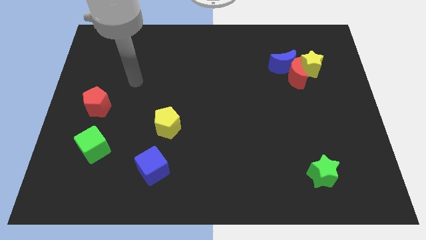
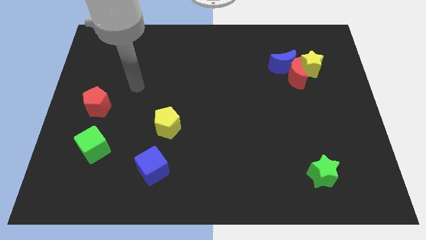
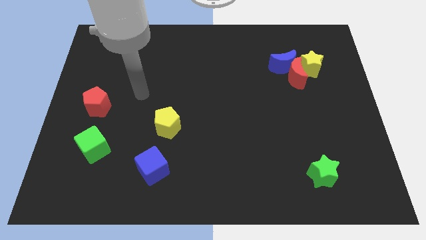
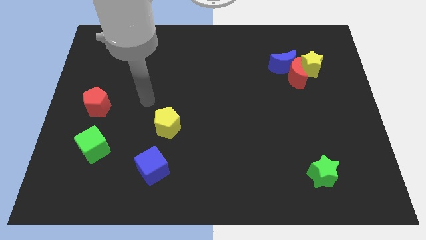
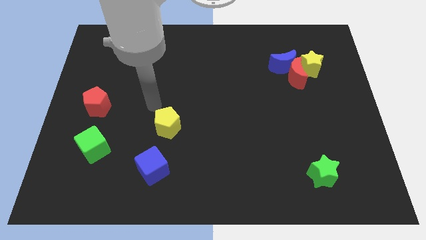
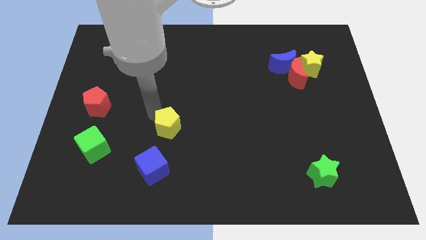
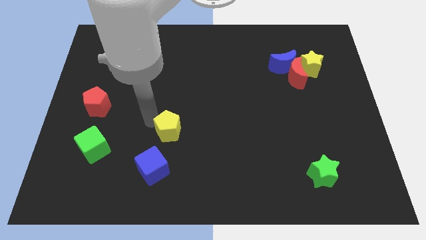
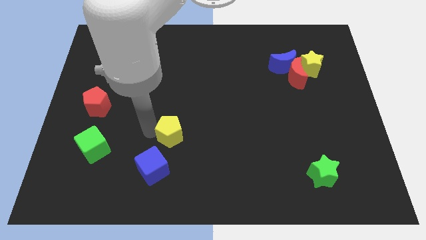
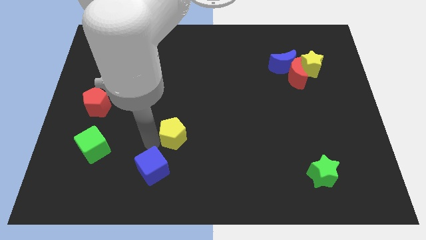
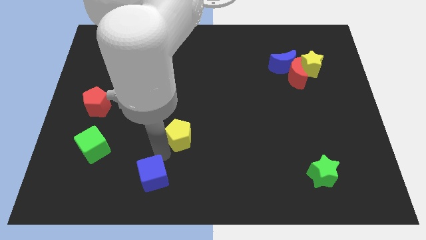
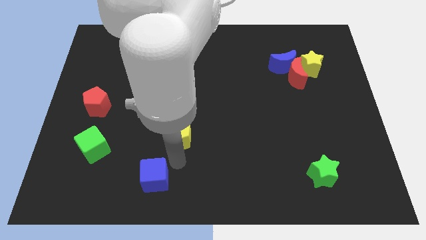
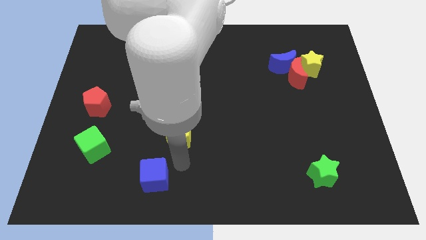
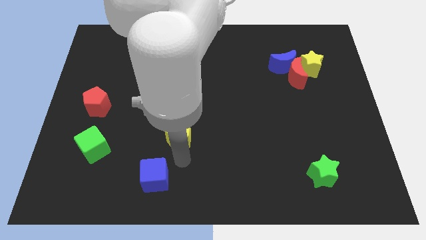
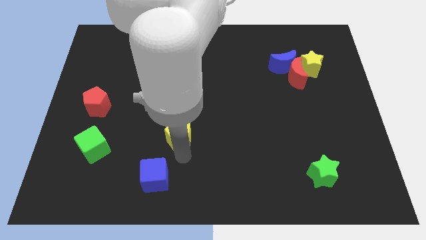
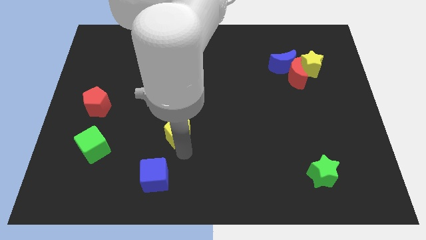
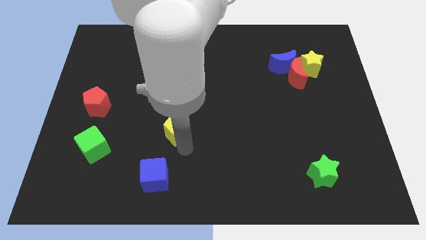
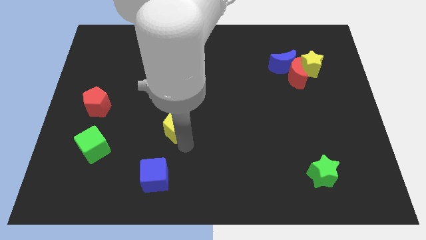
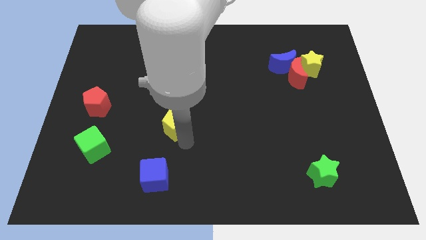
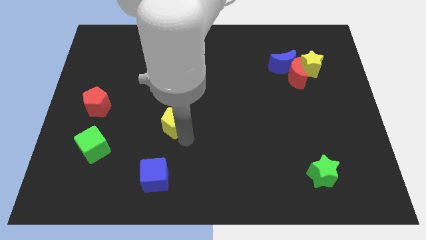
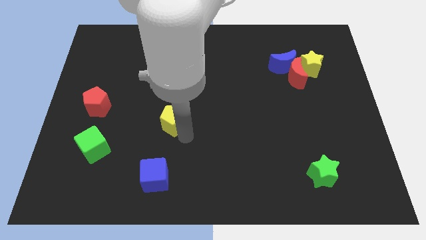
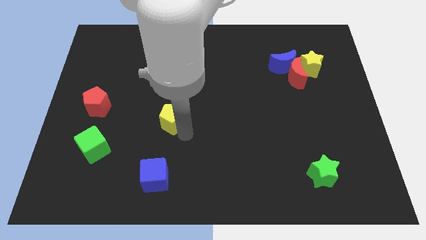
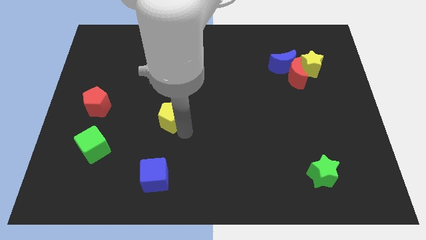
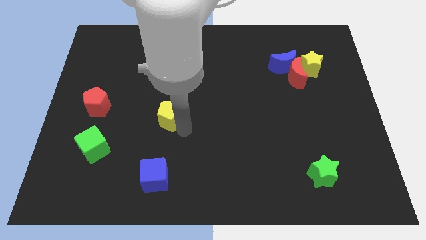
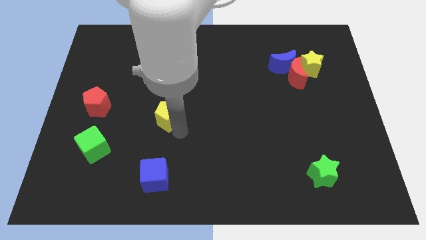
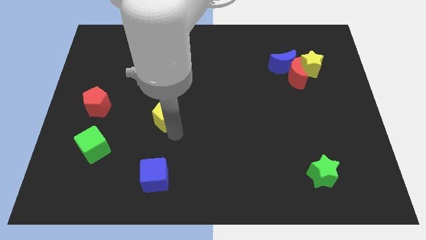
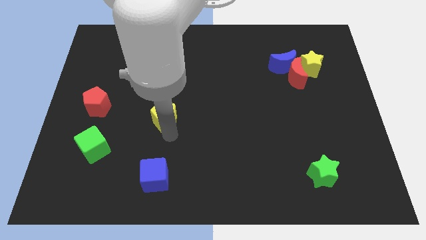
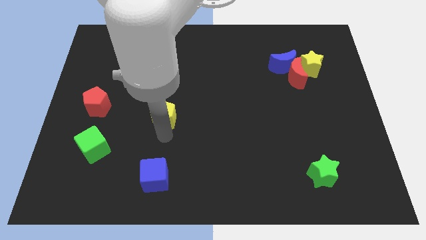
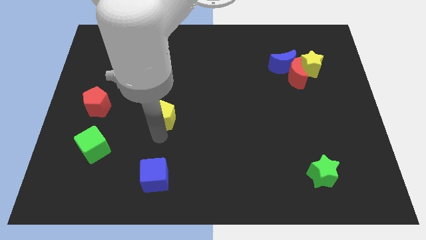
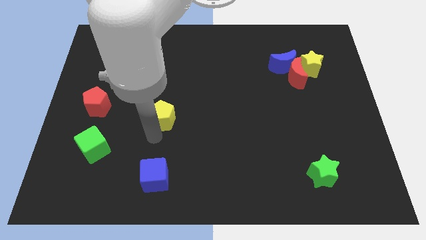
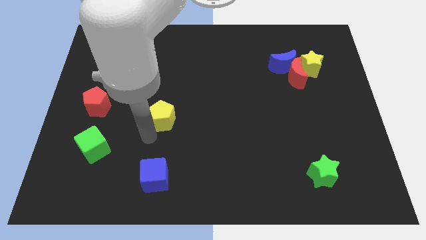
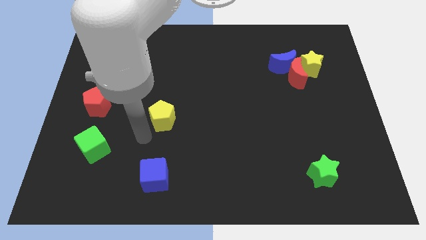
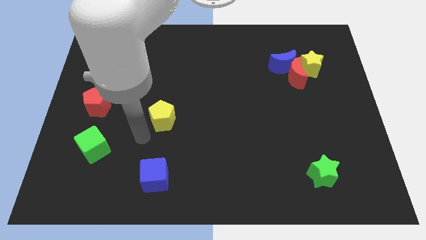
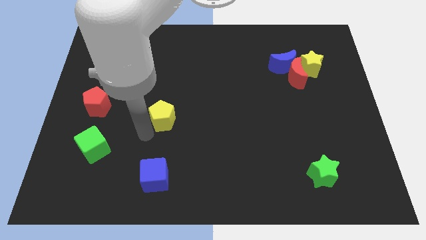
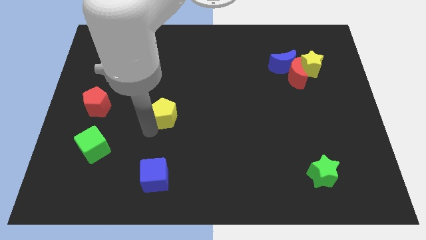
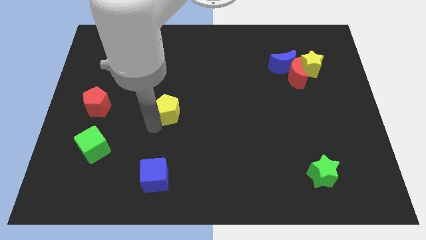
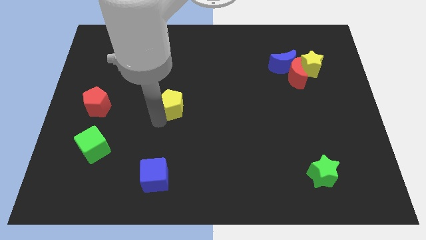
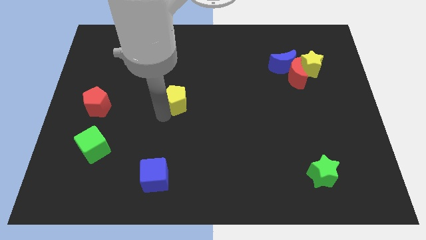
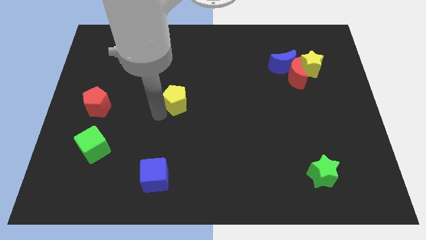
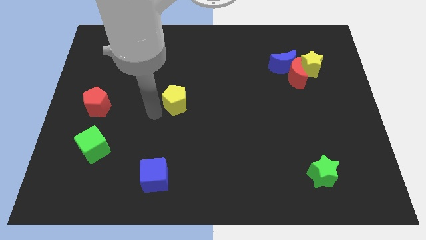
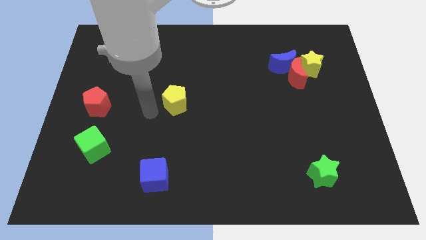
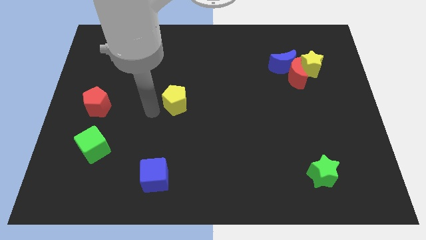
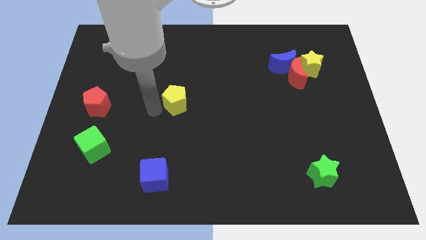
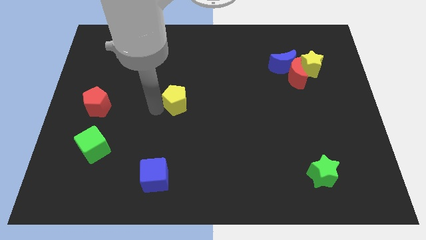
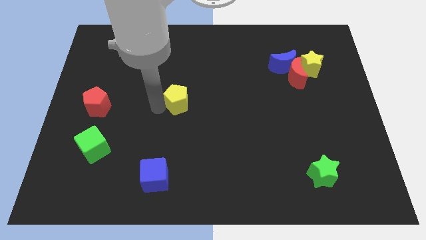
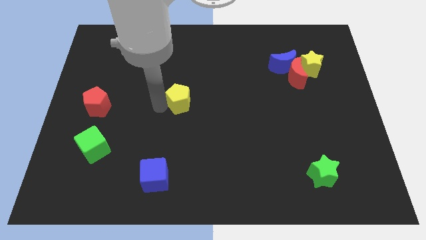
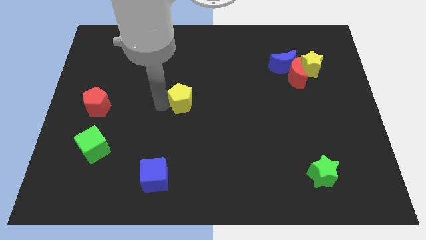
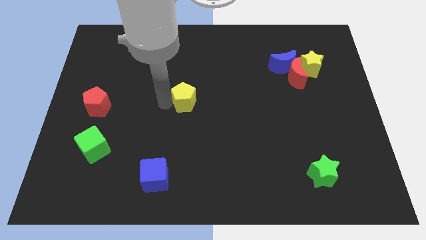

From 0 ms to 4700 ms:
move the yellow pentagon slightly upwards and to the right diagonally

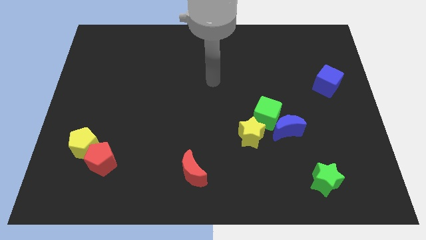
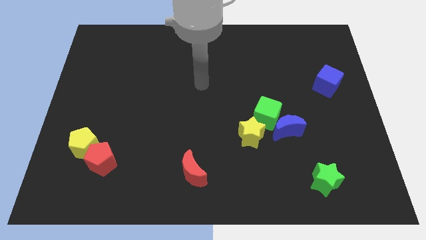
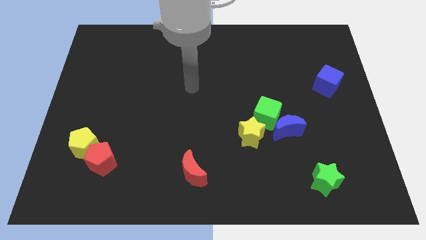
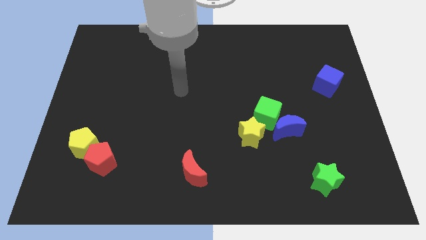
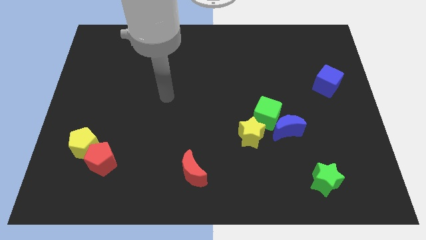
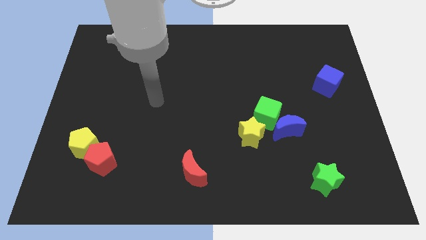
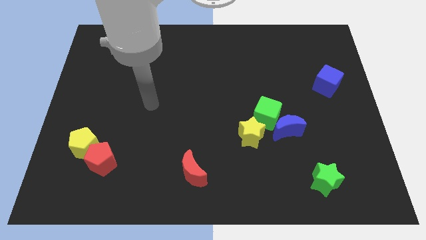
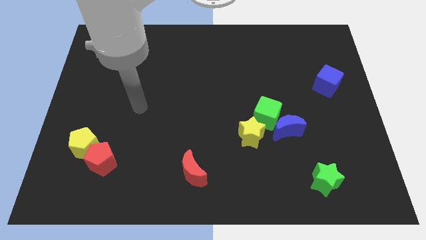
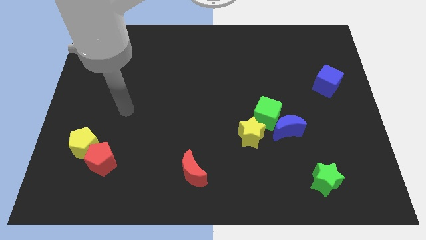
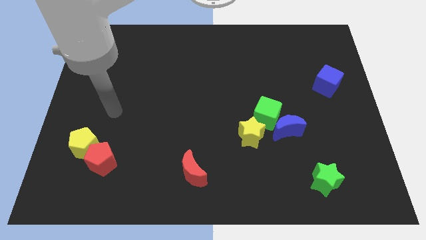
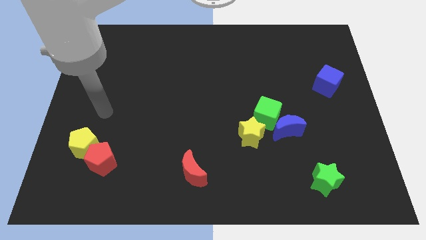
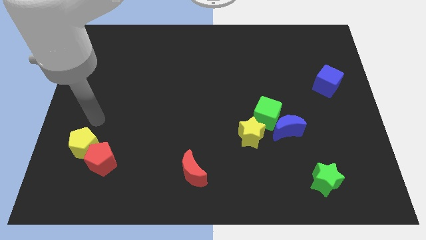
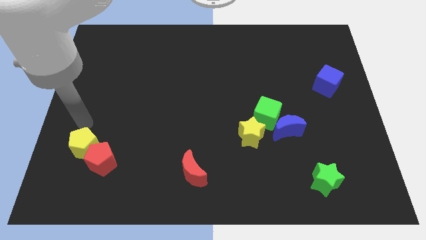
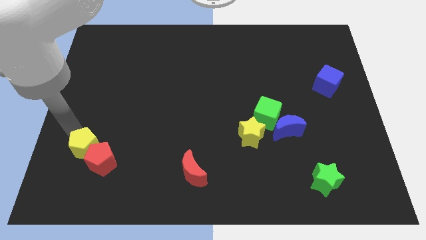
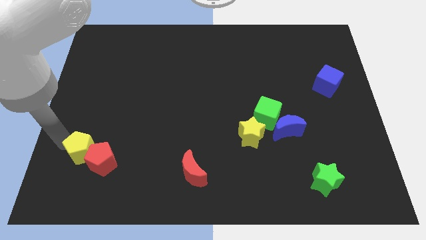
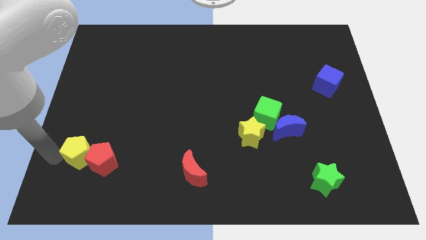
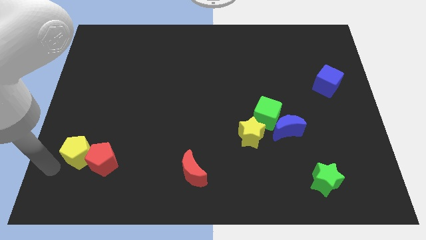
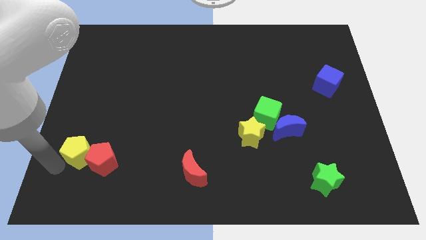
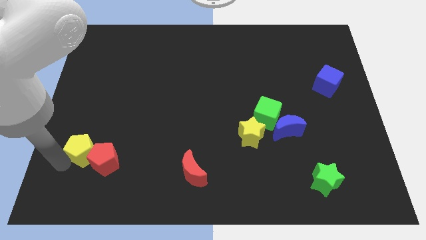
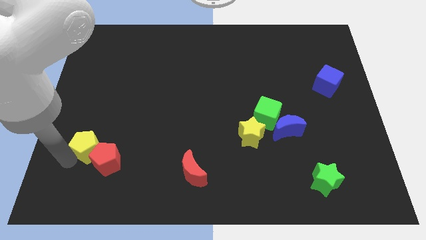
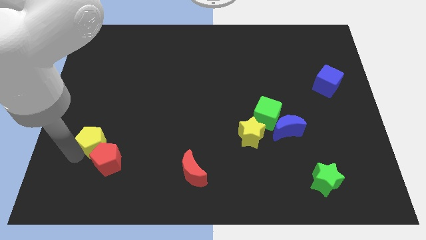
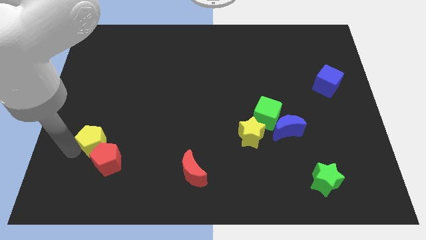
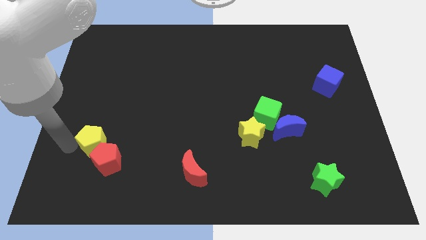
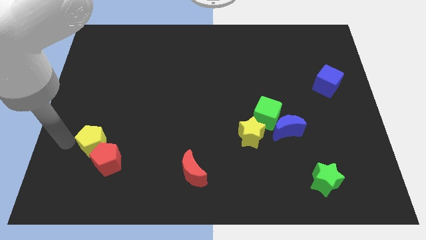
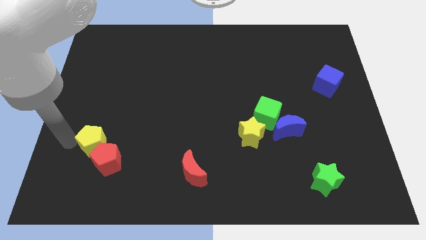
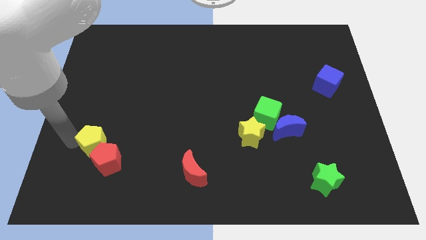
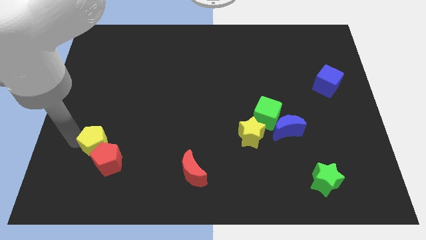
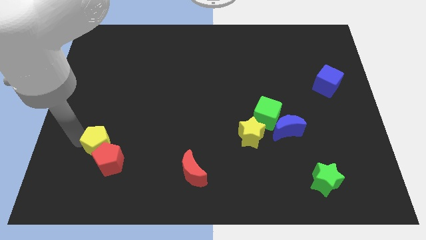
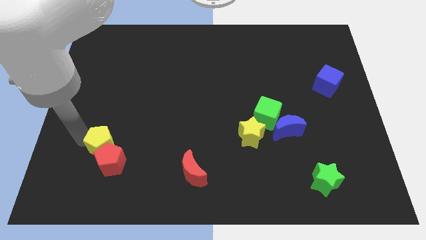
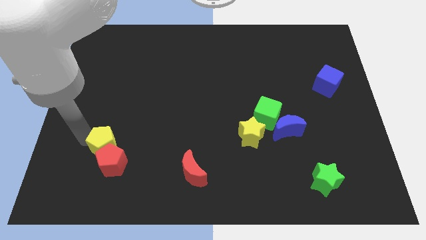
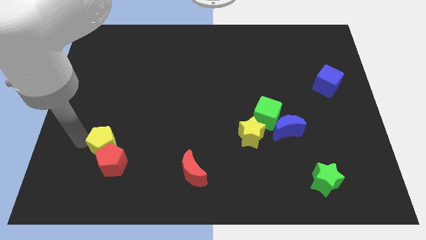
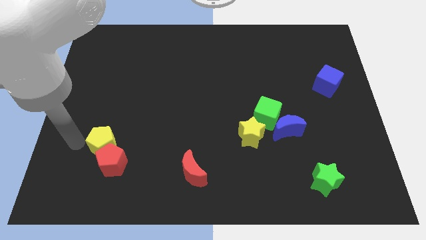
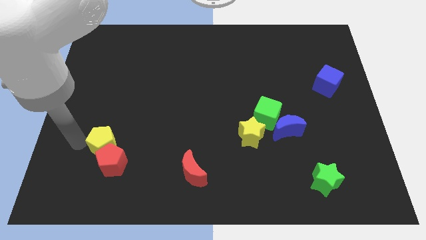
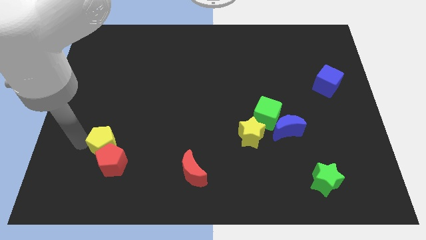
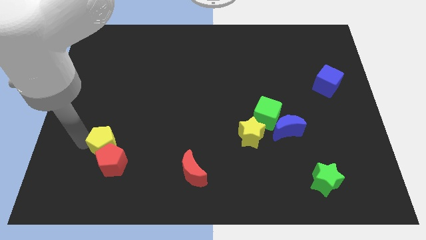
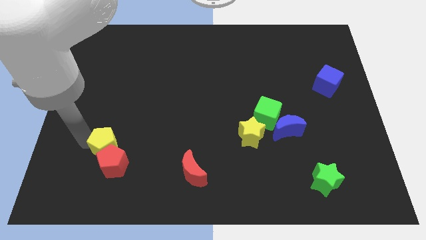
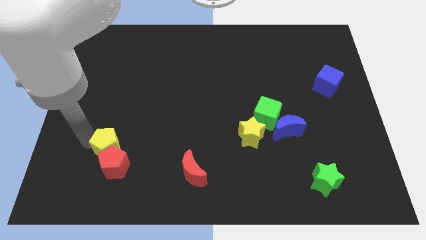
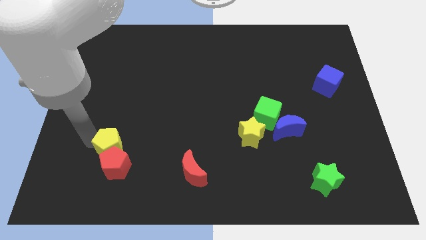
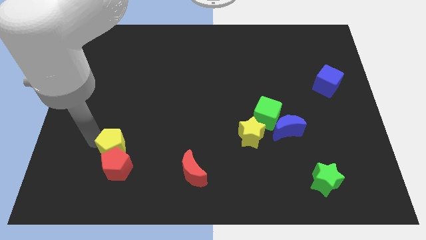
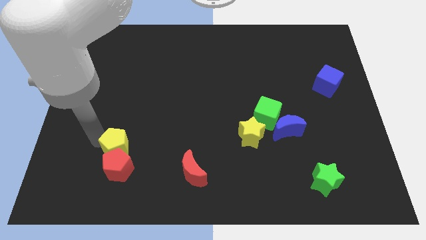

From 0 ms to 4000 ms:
slide the yellow pentagon right slightly
